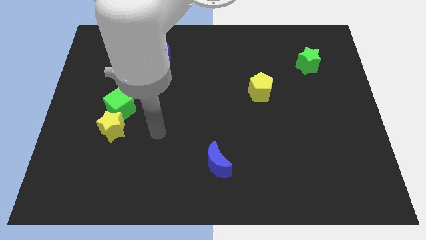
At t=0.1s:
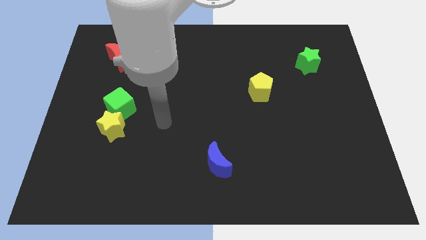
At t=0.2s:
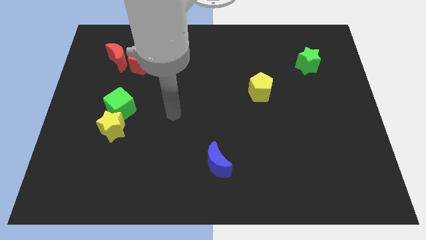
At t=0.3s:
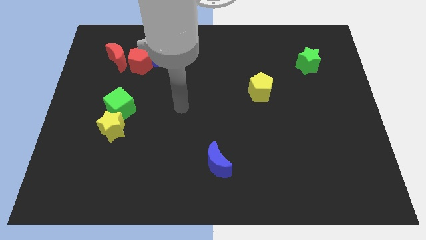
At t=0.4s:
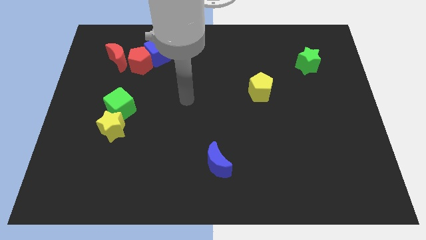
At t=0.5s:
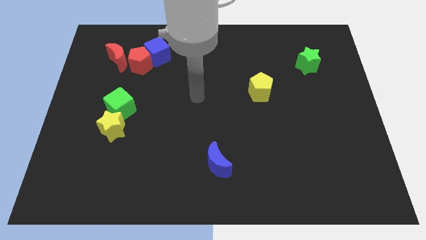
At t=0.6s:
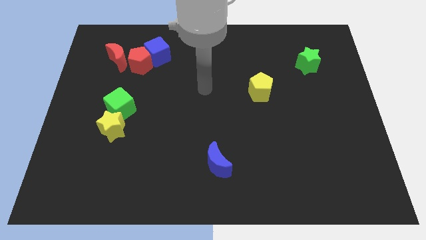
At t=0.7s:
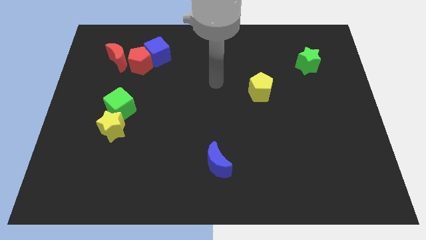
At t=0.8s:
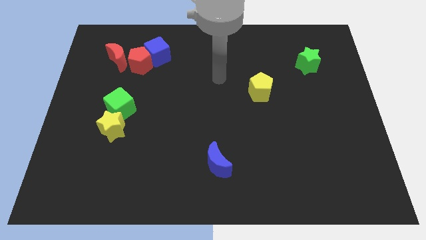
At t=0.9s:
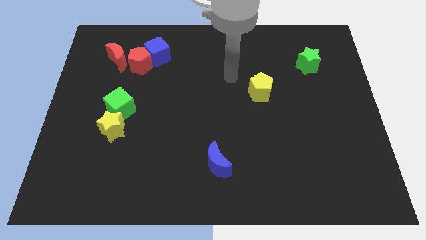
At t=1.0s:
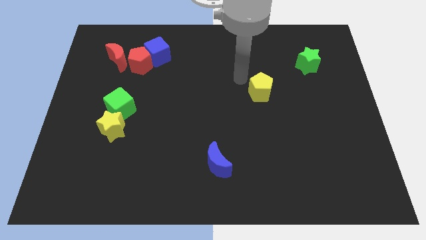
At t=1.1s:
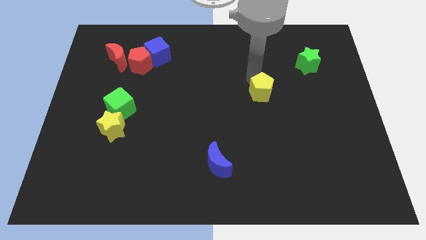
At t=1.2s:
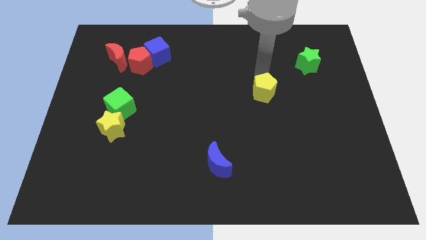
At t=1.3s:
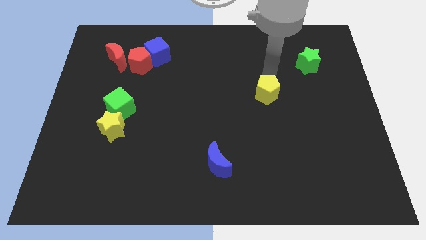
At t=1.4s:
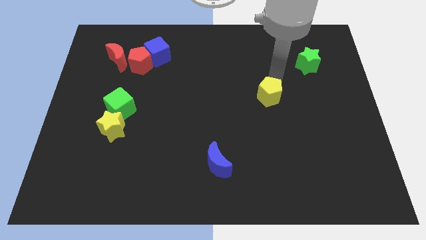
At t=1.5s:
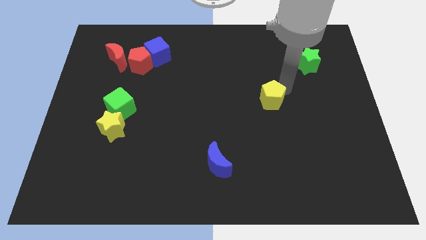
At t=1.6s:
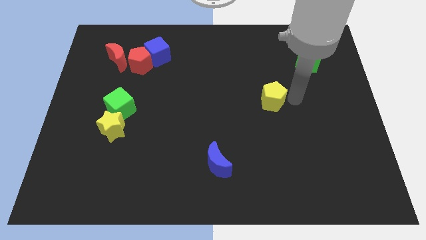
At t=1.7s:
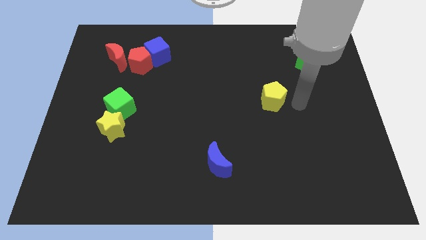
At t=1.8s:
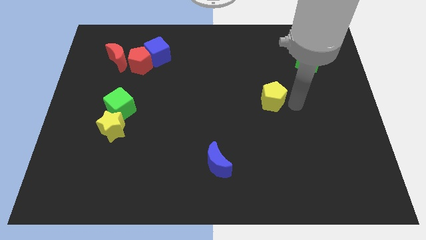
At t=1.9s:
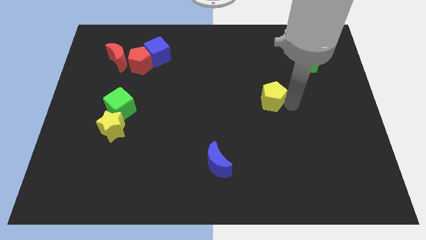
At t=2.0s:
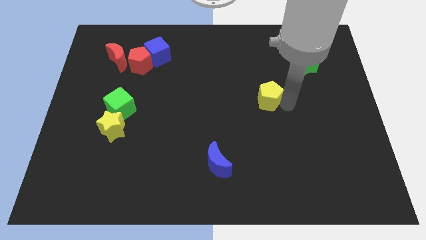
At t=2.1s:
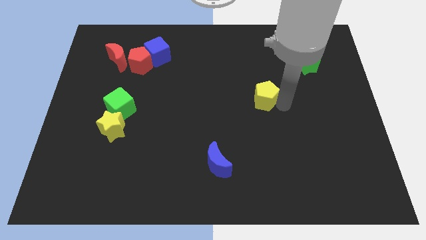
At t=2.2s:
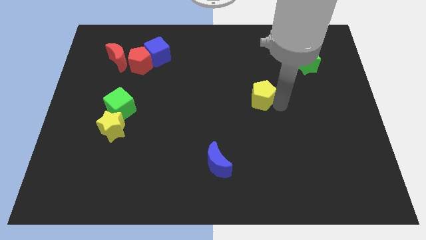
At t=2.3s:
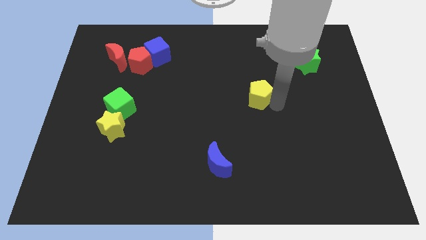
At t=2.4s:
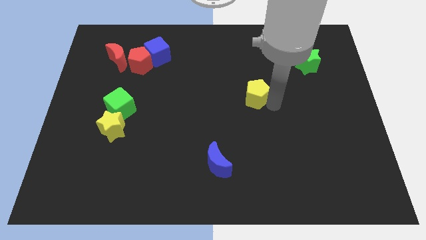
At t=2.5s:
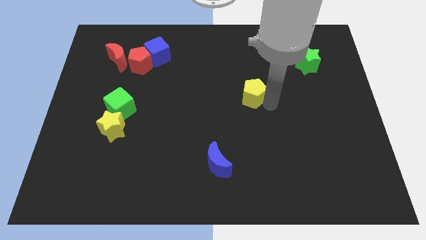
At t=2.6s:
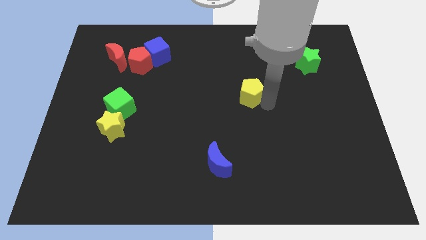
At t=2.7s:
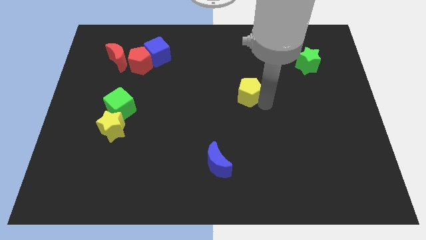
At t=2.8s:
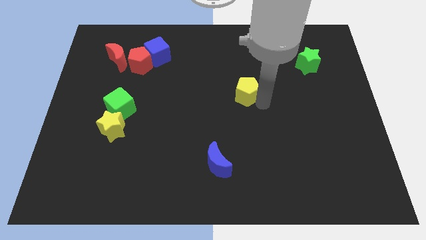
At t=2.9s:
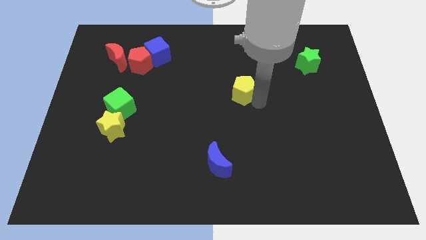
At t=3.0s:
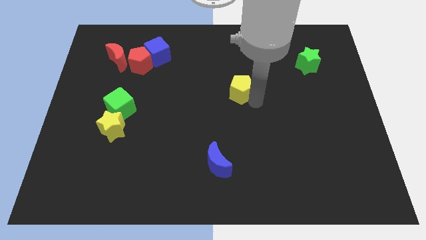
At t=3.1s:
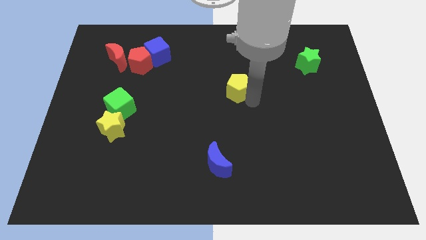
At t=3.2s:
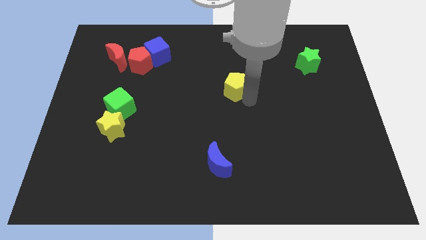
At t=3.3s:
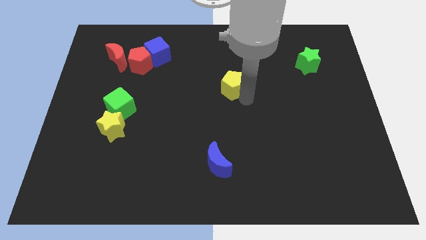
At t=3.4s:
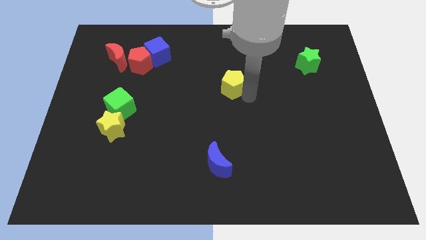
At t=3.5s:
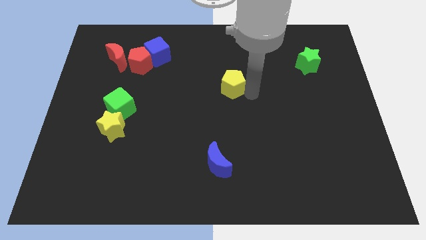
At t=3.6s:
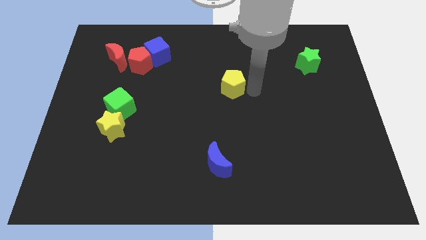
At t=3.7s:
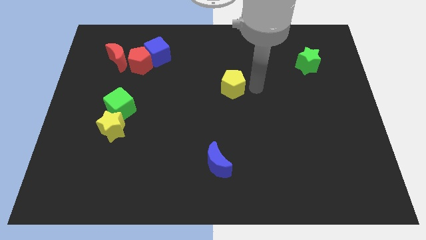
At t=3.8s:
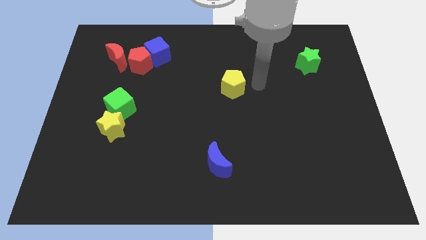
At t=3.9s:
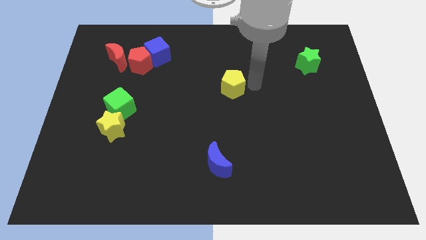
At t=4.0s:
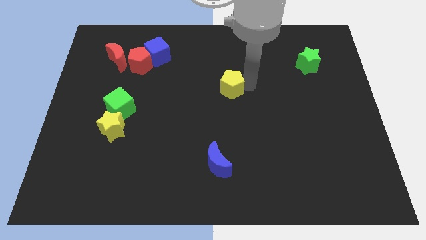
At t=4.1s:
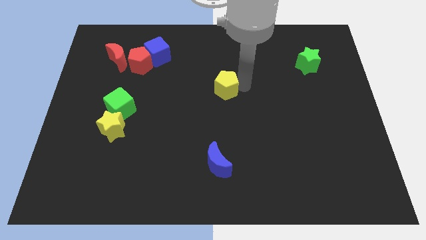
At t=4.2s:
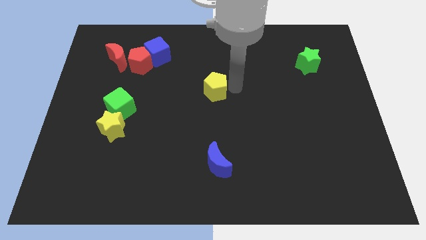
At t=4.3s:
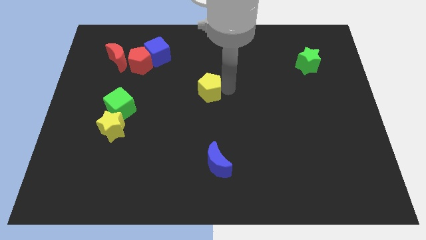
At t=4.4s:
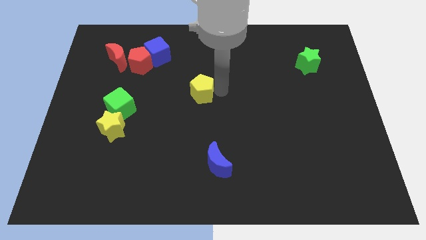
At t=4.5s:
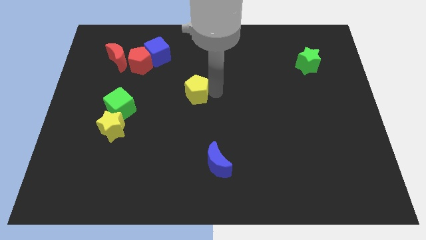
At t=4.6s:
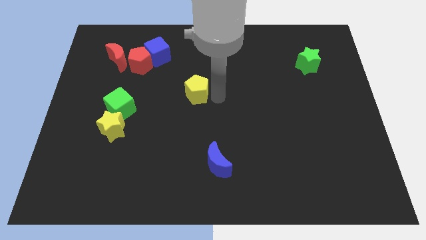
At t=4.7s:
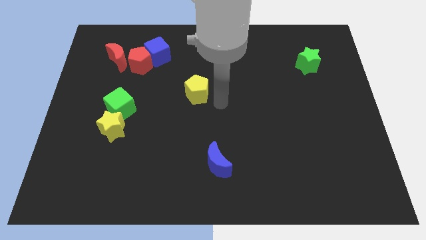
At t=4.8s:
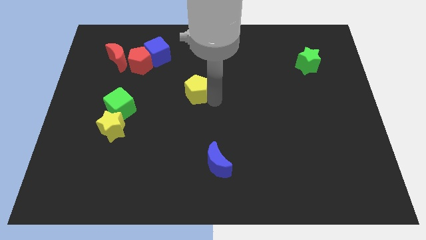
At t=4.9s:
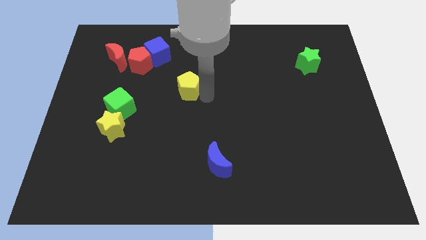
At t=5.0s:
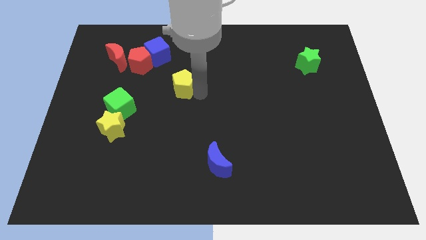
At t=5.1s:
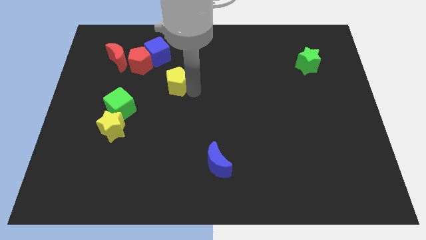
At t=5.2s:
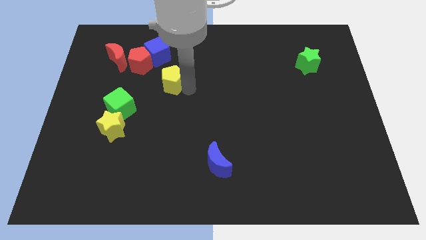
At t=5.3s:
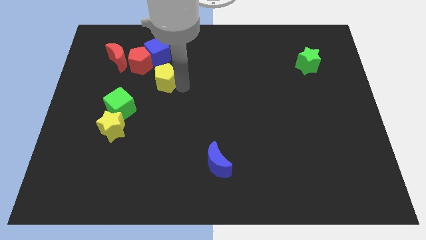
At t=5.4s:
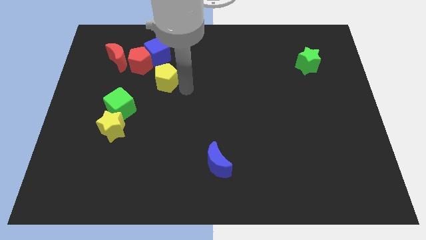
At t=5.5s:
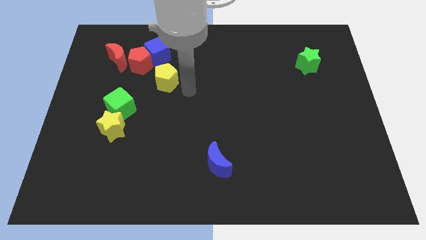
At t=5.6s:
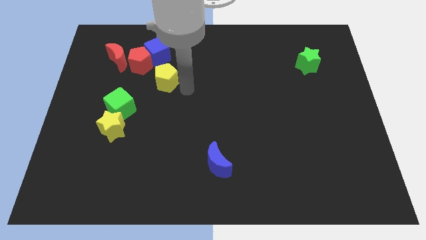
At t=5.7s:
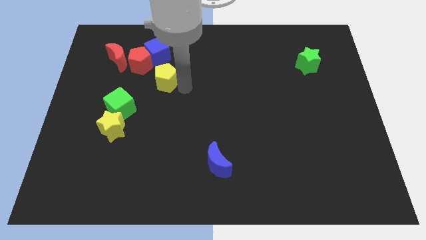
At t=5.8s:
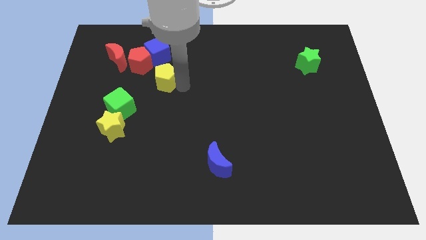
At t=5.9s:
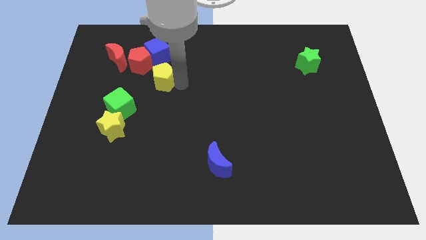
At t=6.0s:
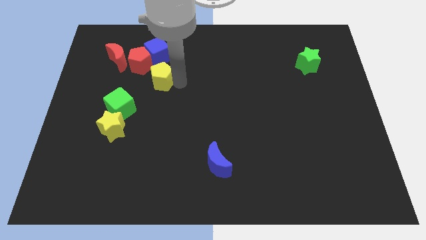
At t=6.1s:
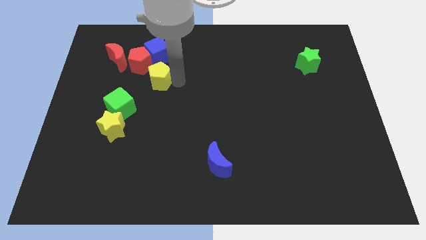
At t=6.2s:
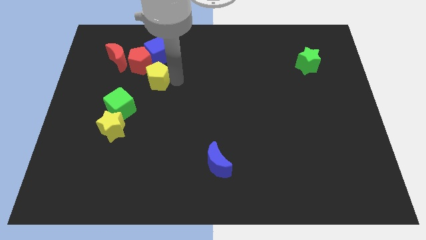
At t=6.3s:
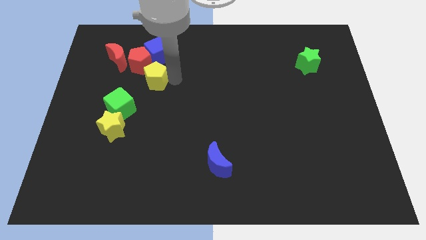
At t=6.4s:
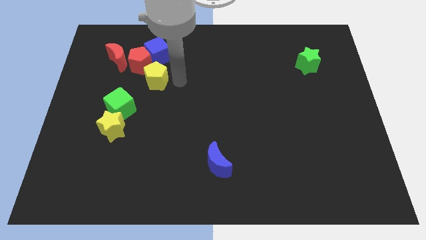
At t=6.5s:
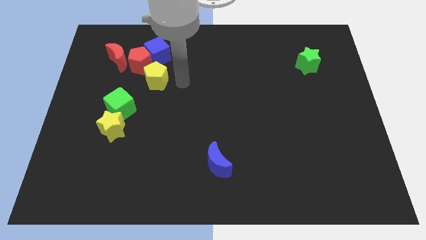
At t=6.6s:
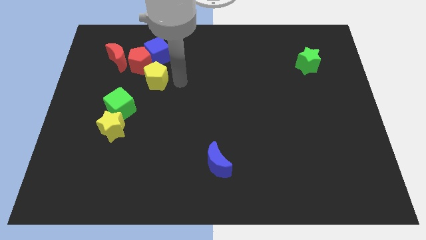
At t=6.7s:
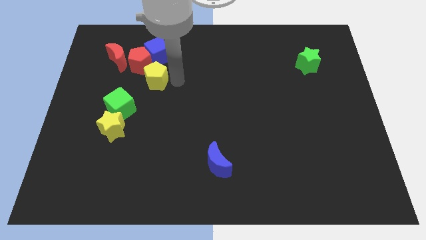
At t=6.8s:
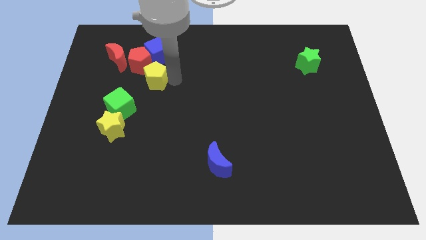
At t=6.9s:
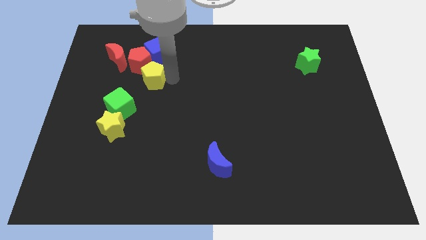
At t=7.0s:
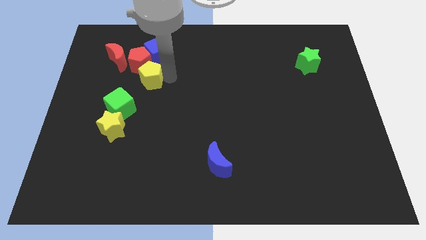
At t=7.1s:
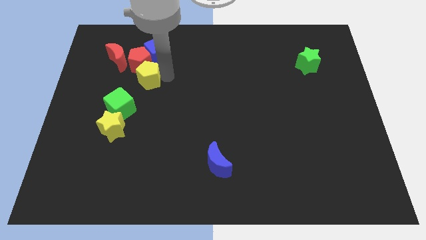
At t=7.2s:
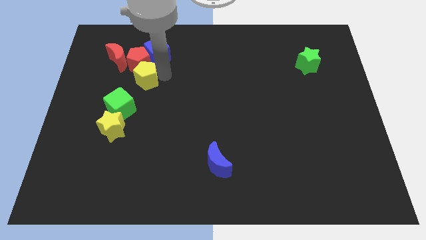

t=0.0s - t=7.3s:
put the yellow pentagon to the top of the green cube

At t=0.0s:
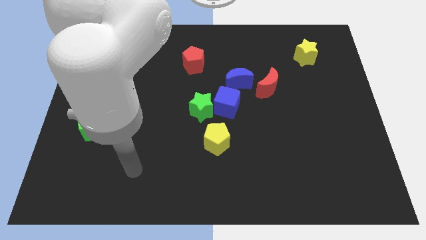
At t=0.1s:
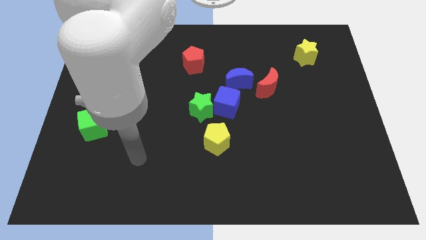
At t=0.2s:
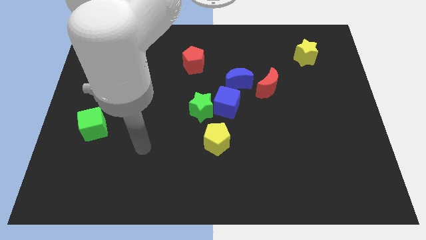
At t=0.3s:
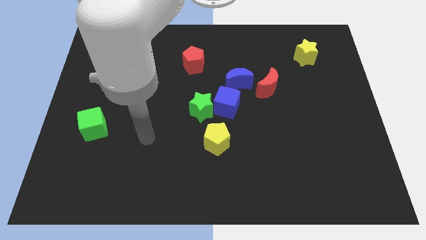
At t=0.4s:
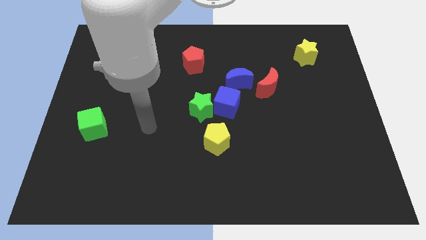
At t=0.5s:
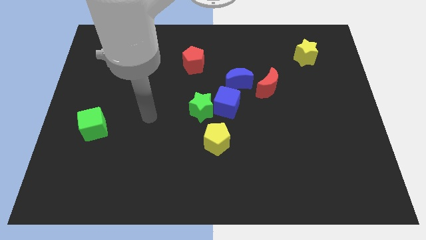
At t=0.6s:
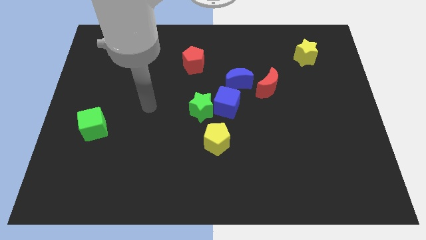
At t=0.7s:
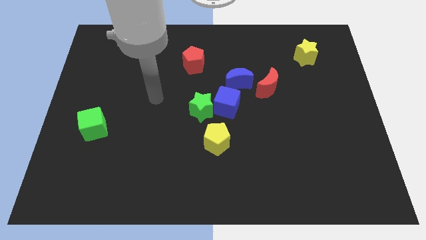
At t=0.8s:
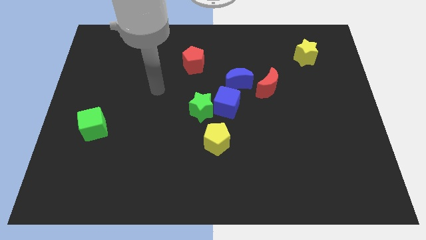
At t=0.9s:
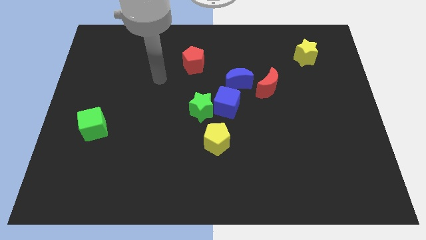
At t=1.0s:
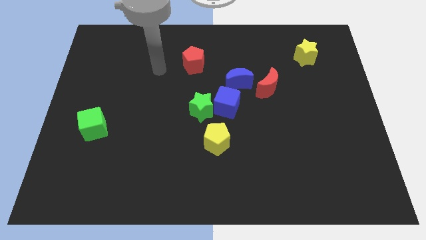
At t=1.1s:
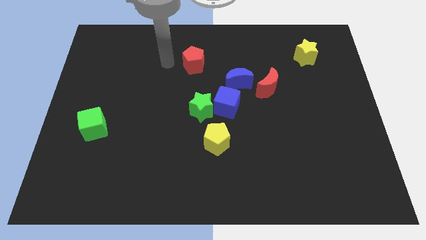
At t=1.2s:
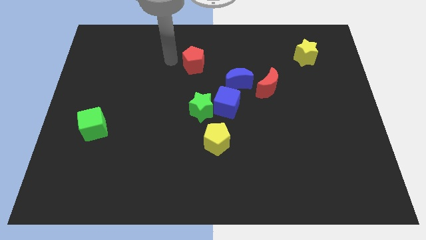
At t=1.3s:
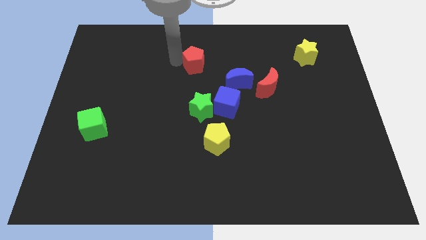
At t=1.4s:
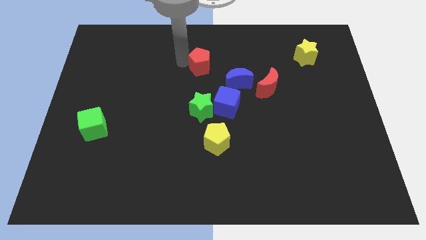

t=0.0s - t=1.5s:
move the red pentagon to the top left of the blue moon
